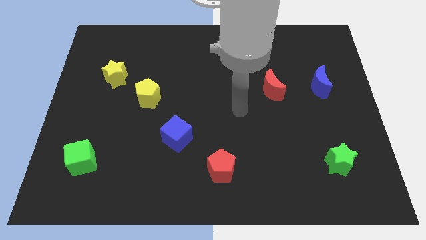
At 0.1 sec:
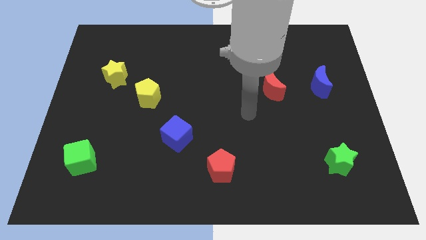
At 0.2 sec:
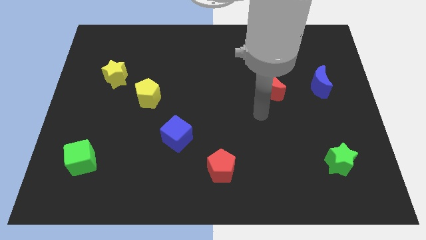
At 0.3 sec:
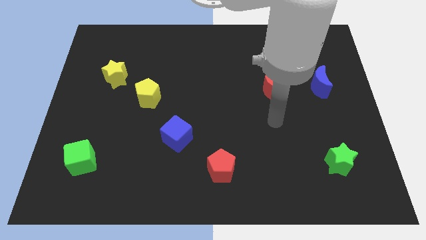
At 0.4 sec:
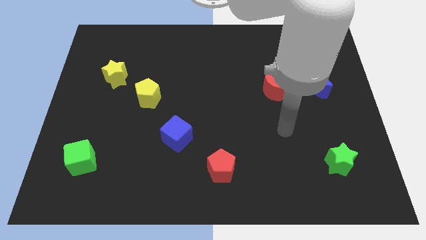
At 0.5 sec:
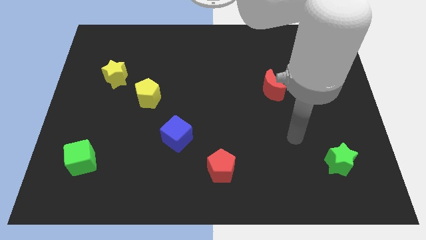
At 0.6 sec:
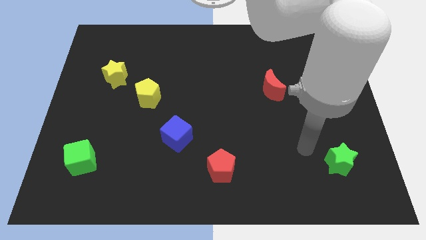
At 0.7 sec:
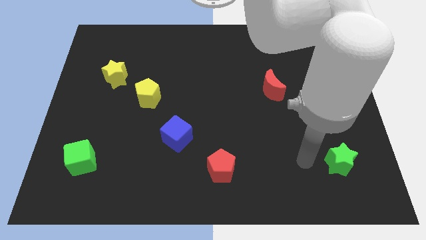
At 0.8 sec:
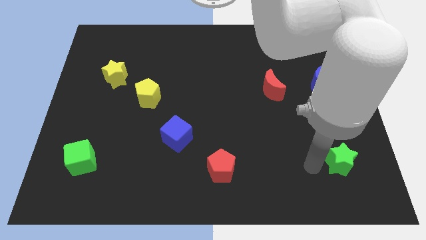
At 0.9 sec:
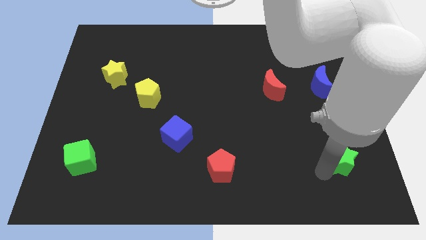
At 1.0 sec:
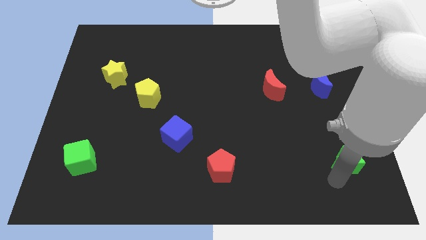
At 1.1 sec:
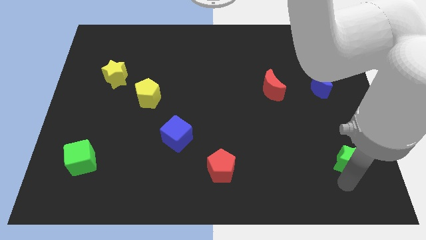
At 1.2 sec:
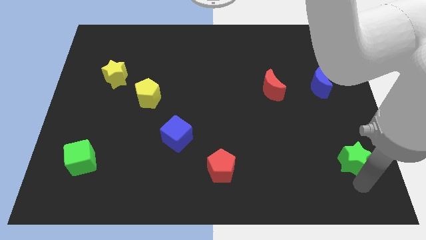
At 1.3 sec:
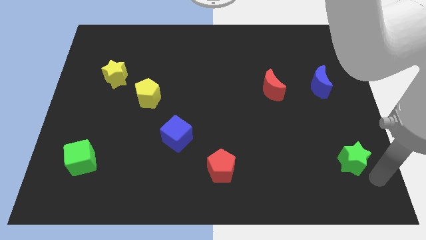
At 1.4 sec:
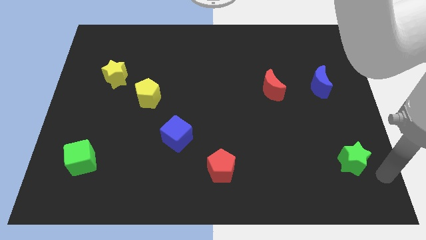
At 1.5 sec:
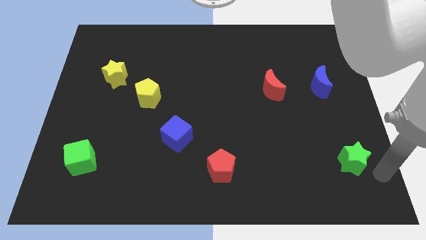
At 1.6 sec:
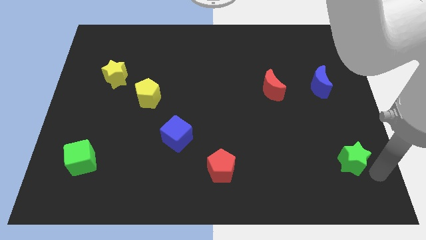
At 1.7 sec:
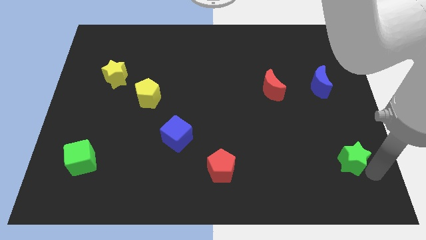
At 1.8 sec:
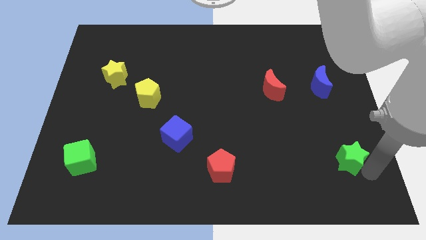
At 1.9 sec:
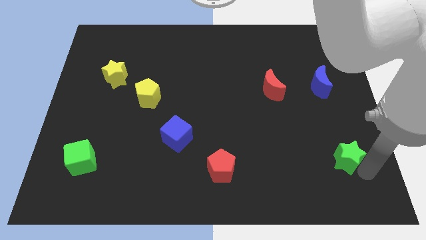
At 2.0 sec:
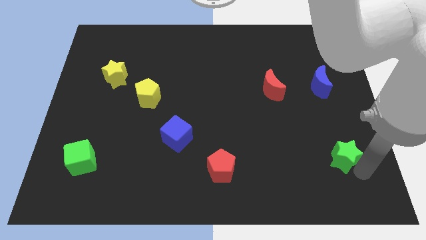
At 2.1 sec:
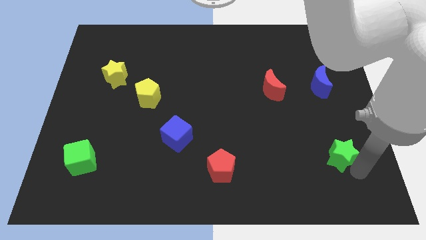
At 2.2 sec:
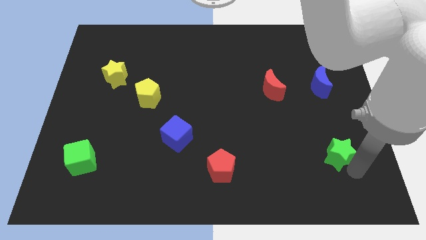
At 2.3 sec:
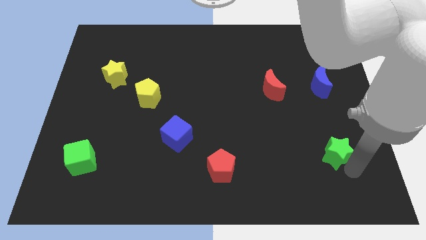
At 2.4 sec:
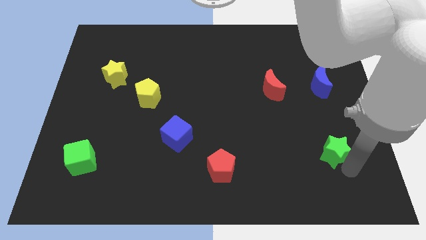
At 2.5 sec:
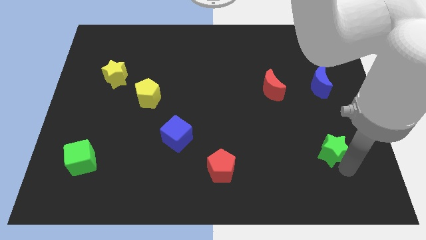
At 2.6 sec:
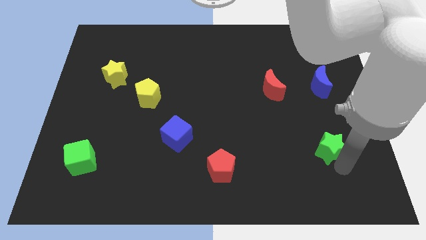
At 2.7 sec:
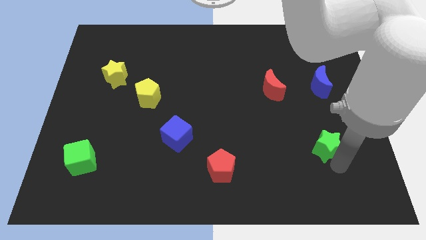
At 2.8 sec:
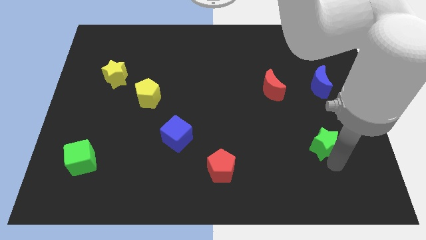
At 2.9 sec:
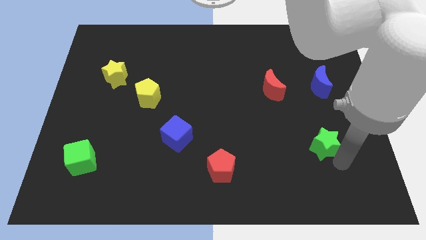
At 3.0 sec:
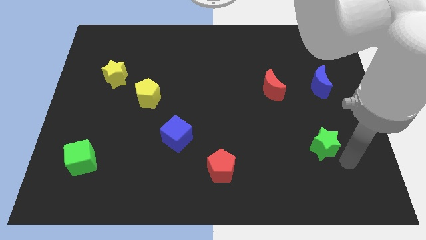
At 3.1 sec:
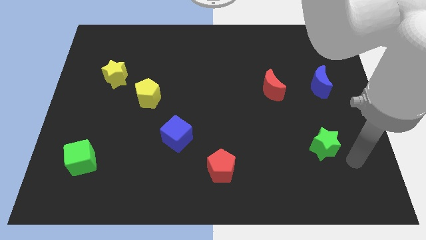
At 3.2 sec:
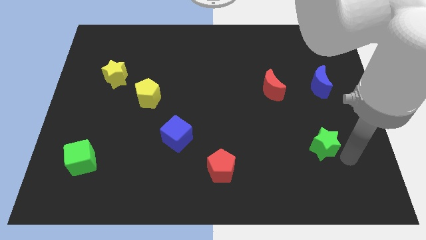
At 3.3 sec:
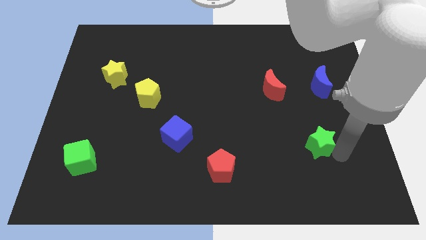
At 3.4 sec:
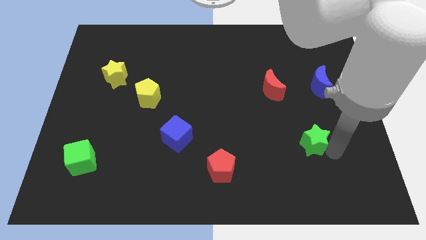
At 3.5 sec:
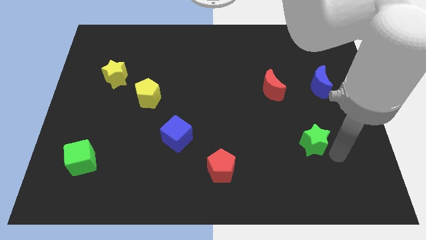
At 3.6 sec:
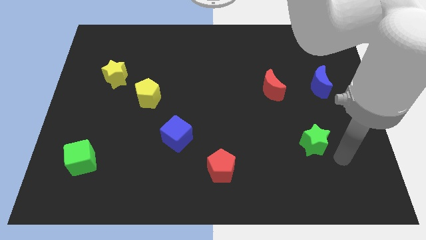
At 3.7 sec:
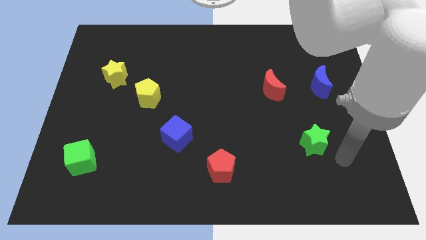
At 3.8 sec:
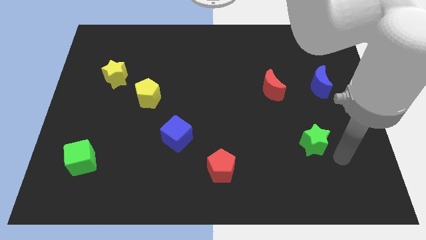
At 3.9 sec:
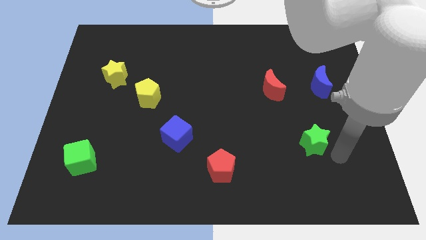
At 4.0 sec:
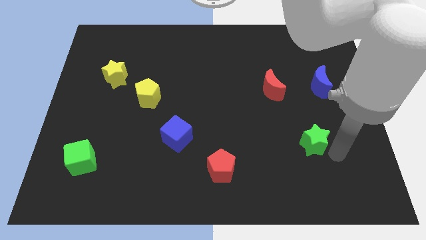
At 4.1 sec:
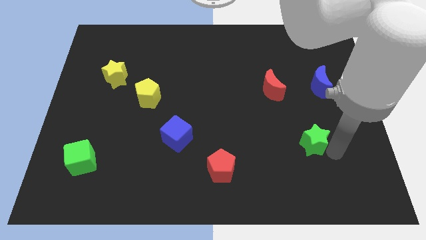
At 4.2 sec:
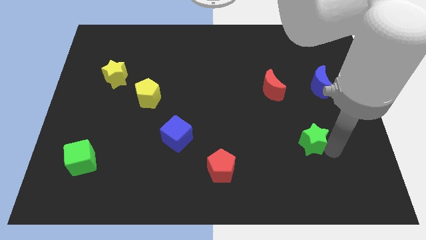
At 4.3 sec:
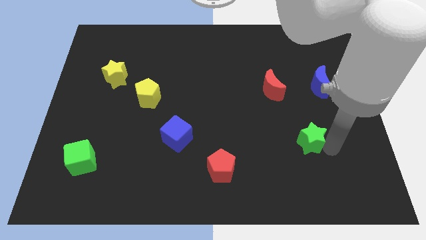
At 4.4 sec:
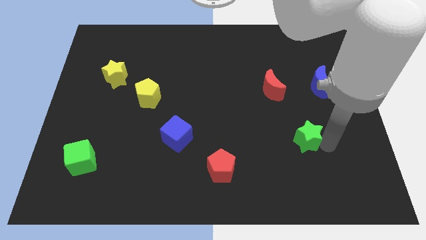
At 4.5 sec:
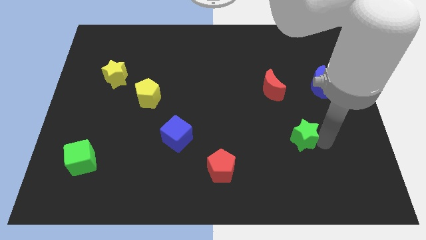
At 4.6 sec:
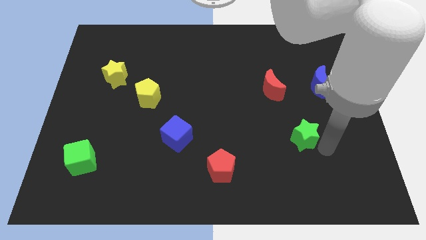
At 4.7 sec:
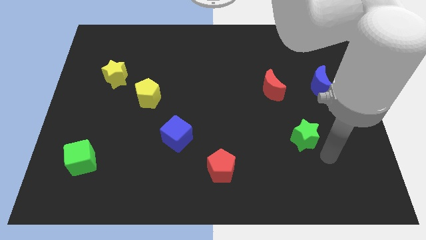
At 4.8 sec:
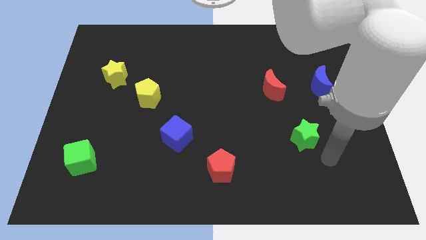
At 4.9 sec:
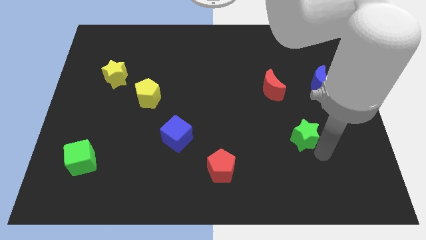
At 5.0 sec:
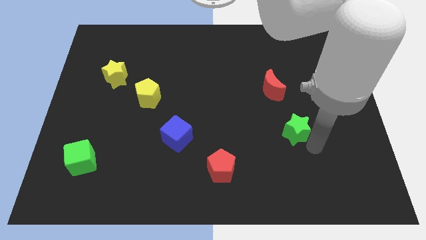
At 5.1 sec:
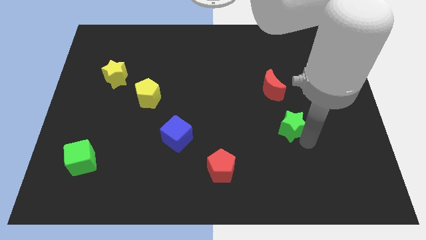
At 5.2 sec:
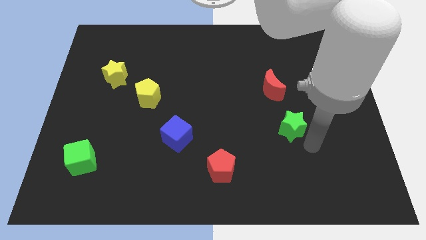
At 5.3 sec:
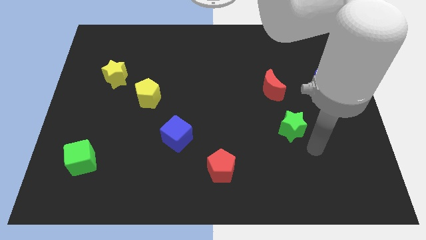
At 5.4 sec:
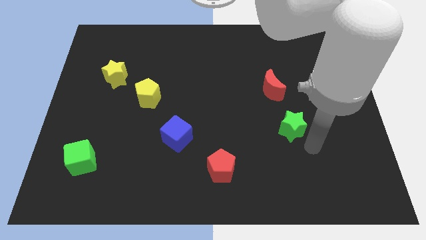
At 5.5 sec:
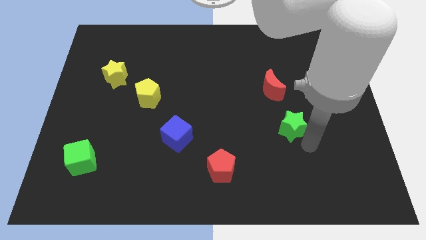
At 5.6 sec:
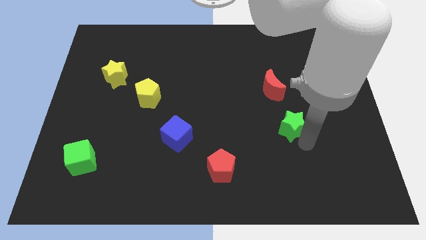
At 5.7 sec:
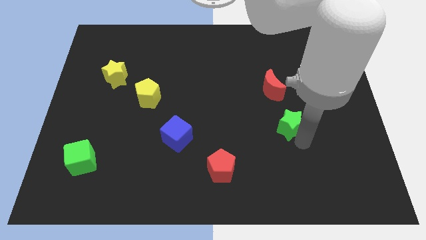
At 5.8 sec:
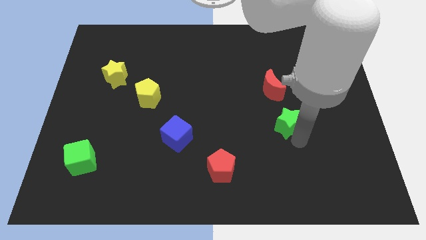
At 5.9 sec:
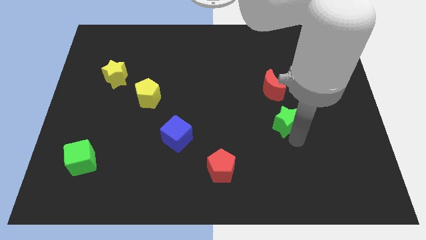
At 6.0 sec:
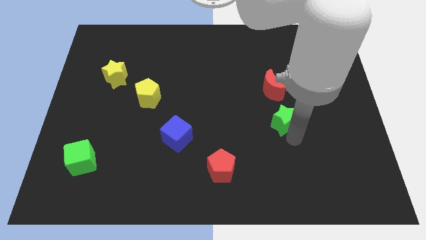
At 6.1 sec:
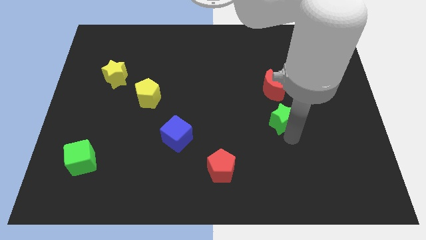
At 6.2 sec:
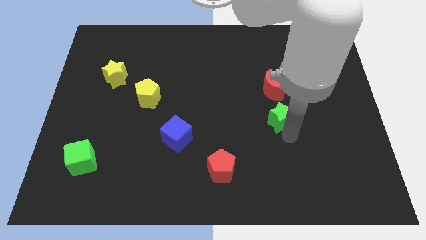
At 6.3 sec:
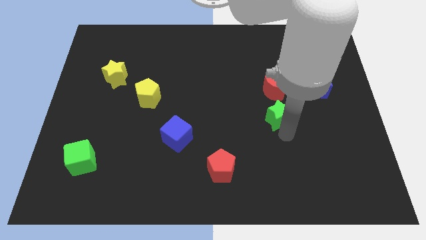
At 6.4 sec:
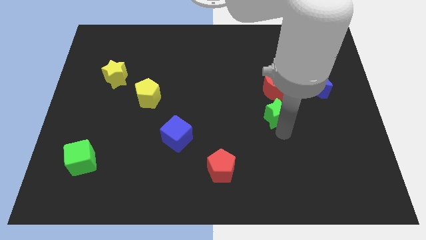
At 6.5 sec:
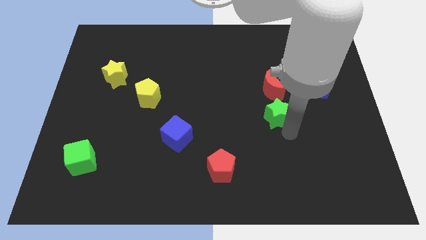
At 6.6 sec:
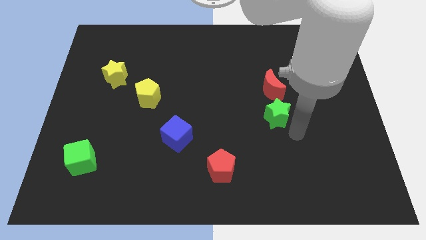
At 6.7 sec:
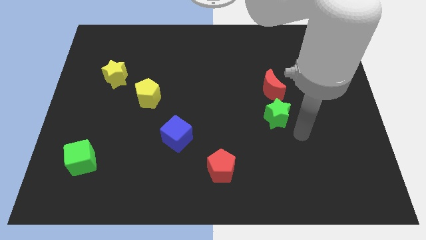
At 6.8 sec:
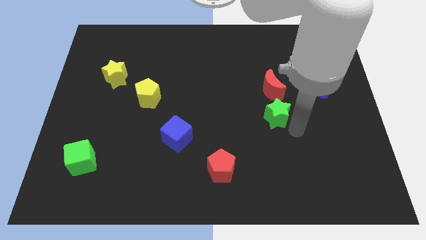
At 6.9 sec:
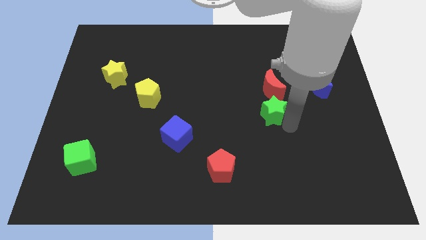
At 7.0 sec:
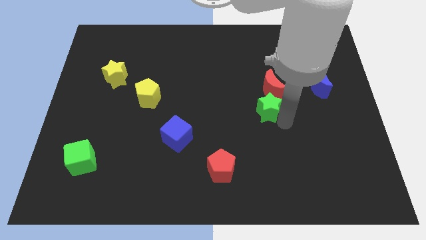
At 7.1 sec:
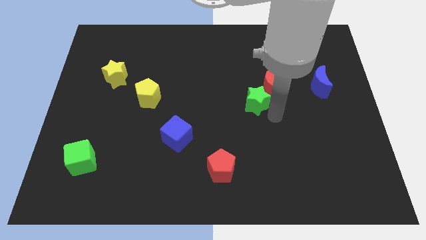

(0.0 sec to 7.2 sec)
slide the green star upwards and to the left diagonally

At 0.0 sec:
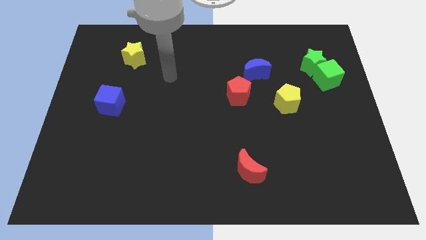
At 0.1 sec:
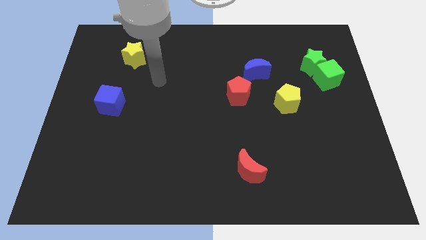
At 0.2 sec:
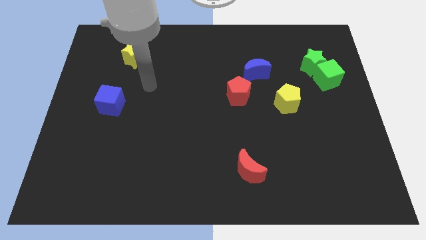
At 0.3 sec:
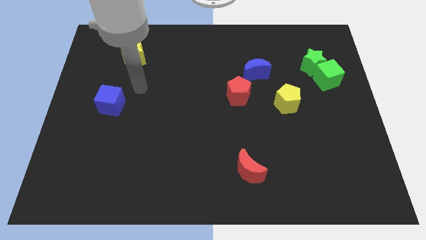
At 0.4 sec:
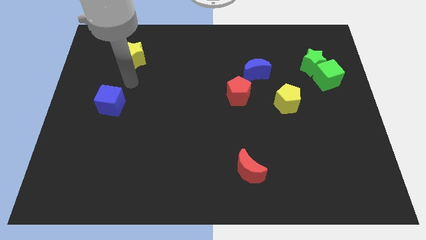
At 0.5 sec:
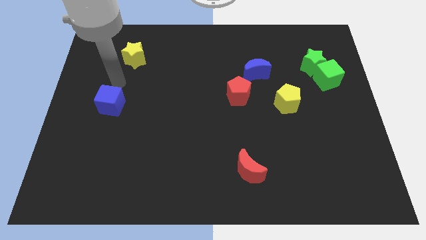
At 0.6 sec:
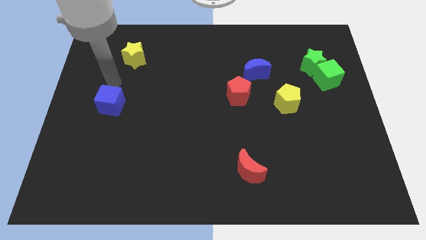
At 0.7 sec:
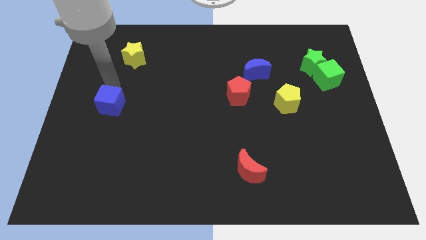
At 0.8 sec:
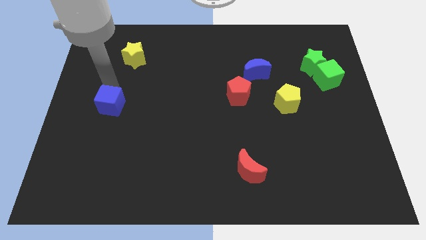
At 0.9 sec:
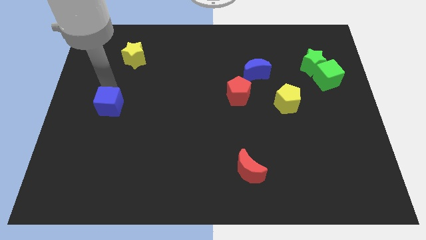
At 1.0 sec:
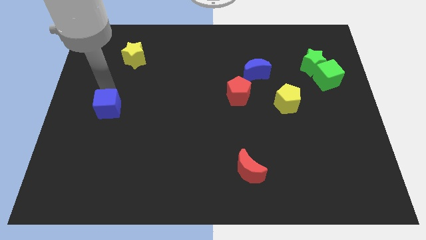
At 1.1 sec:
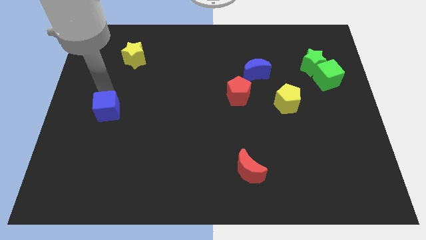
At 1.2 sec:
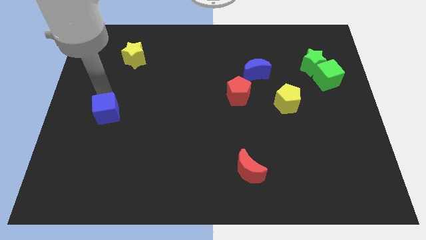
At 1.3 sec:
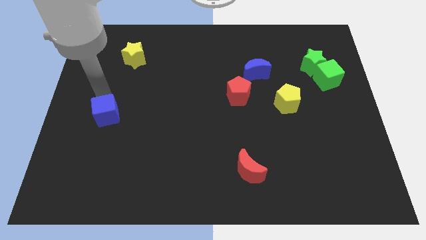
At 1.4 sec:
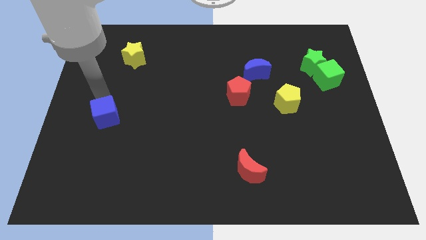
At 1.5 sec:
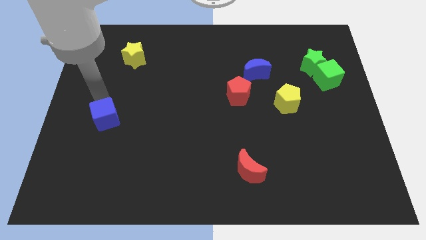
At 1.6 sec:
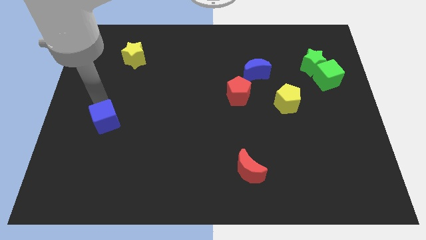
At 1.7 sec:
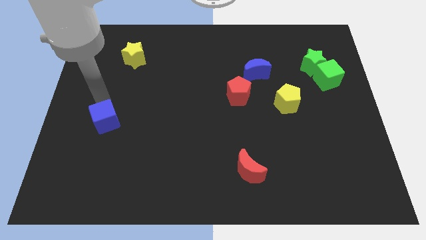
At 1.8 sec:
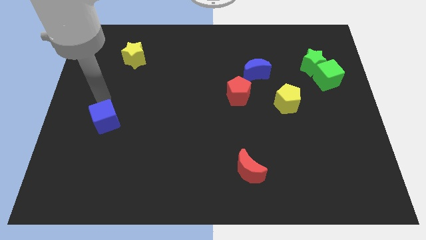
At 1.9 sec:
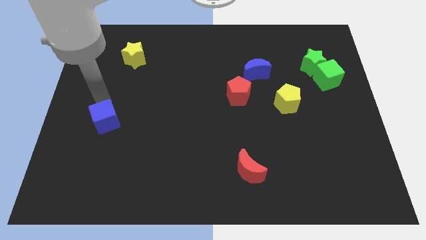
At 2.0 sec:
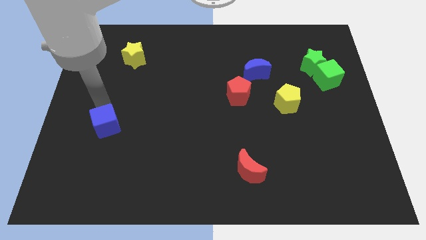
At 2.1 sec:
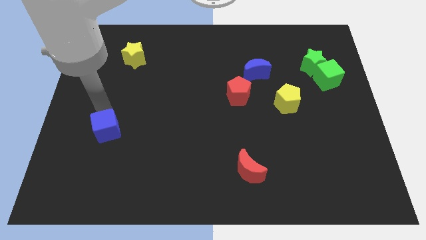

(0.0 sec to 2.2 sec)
slightly push the blue cube downwards
